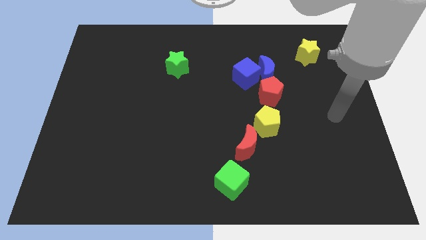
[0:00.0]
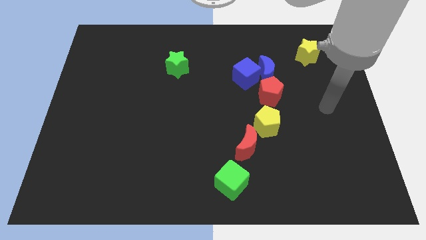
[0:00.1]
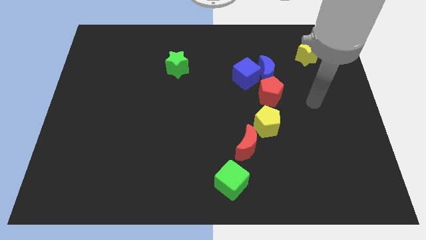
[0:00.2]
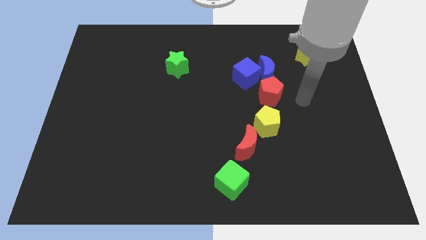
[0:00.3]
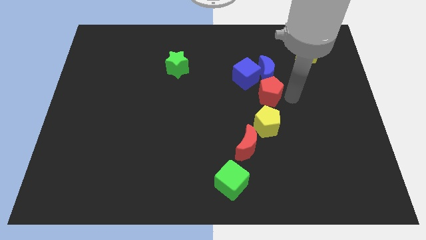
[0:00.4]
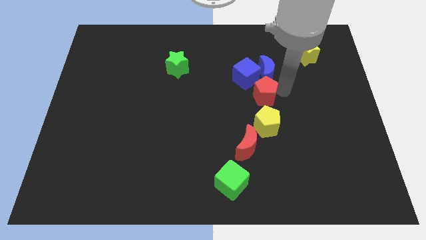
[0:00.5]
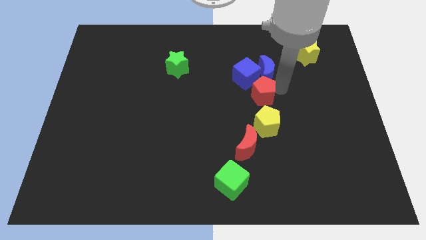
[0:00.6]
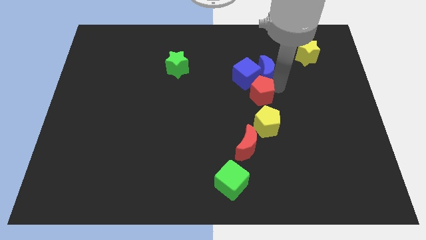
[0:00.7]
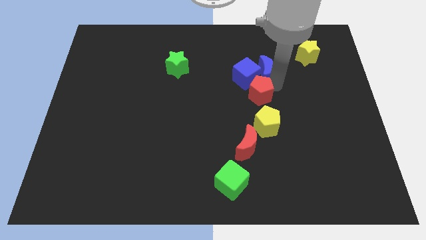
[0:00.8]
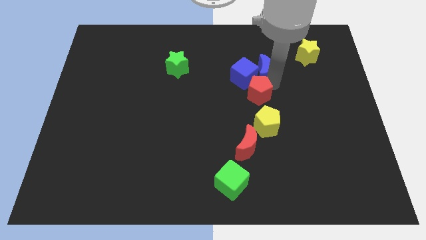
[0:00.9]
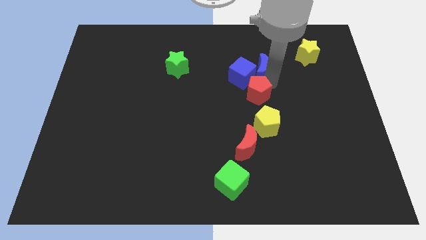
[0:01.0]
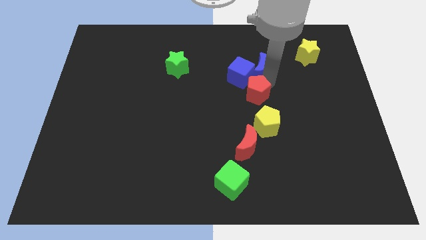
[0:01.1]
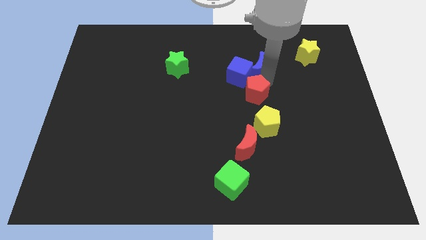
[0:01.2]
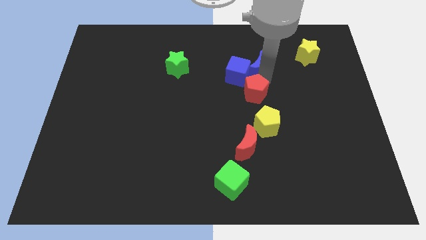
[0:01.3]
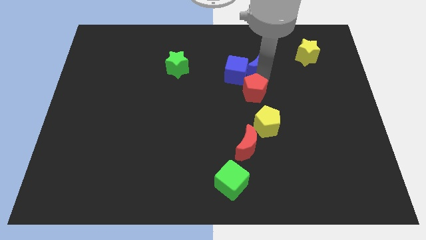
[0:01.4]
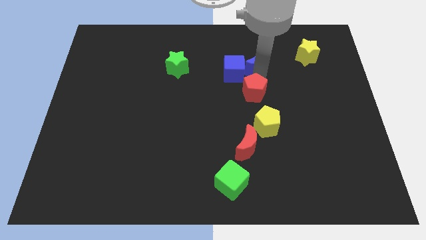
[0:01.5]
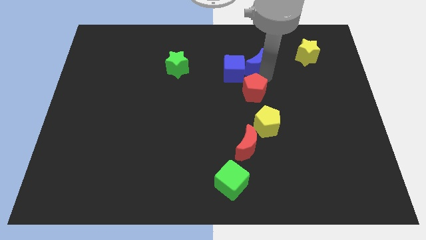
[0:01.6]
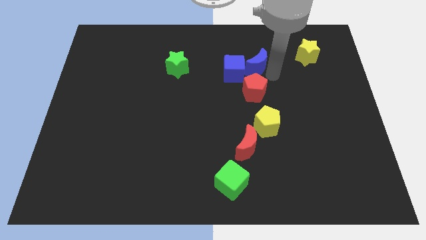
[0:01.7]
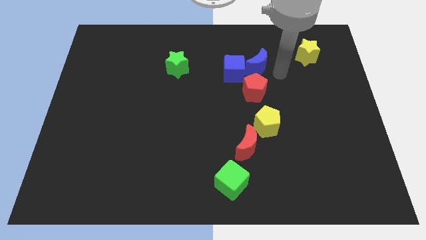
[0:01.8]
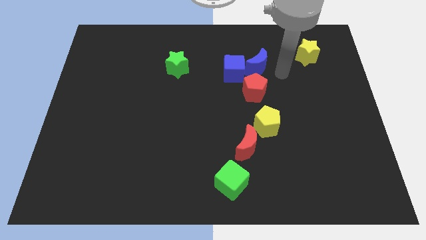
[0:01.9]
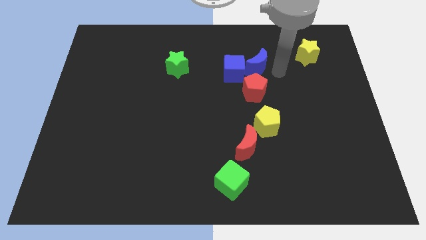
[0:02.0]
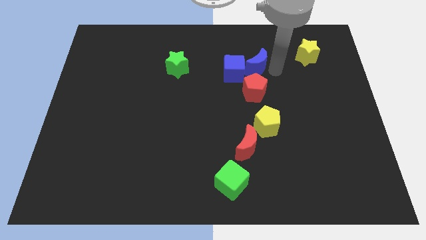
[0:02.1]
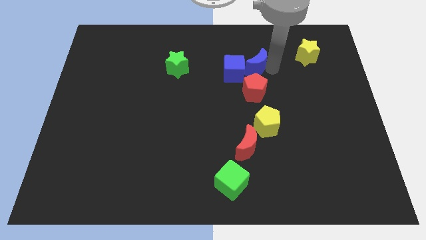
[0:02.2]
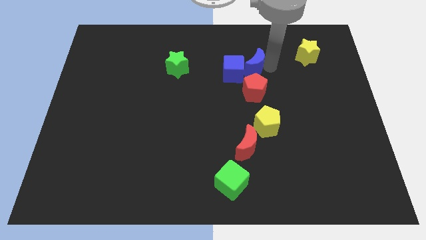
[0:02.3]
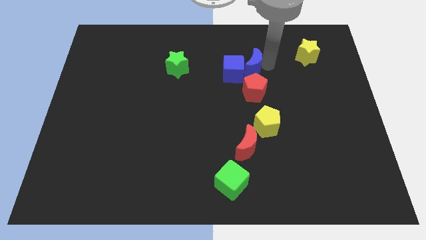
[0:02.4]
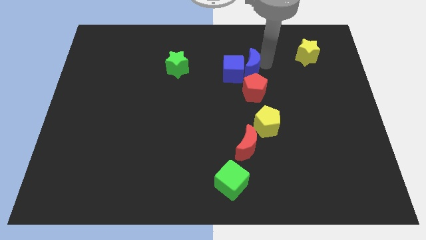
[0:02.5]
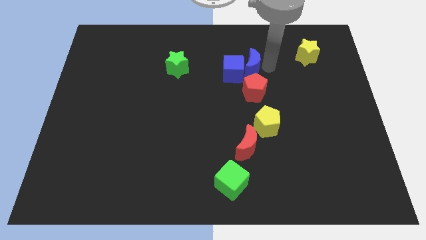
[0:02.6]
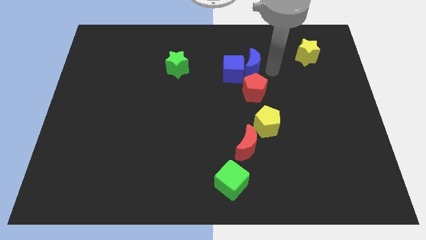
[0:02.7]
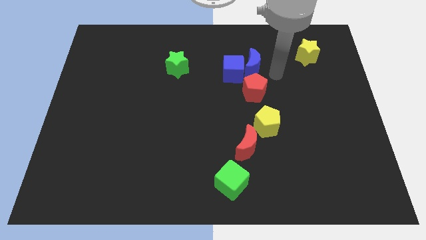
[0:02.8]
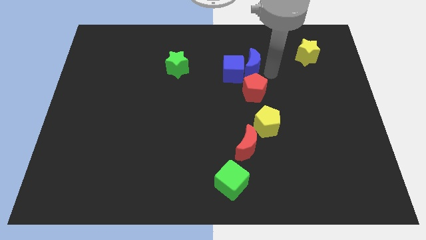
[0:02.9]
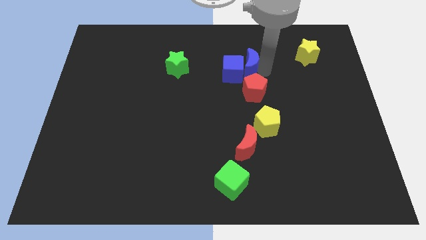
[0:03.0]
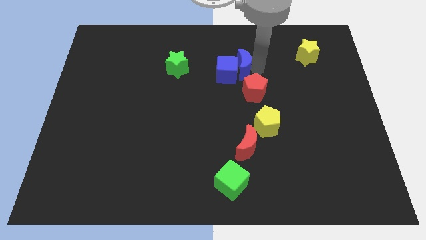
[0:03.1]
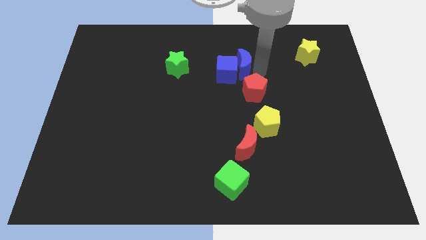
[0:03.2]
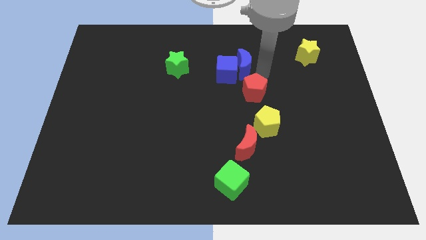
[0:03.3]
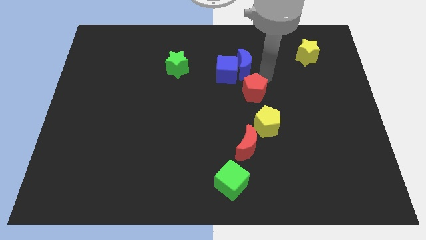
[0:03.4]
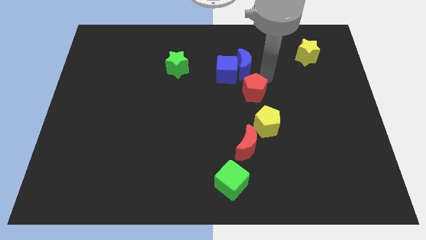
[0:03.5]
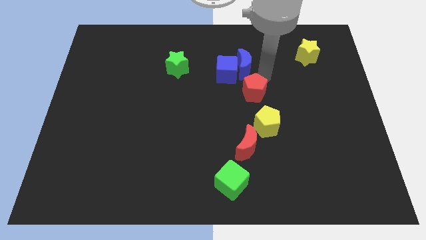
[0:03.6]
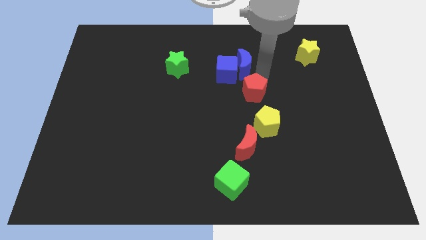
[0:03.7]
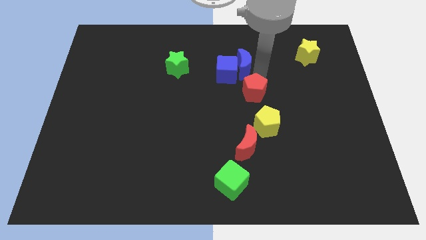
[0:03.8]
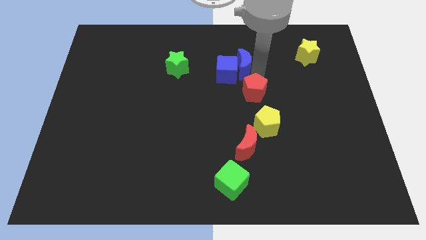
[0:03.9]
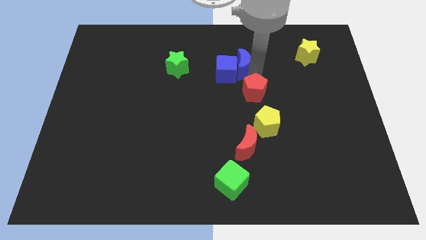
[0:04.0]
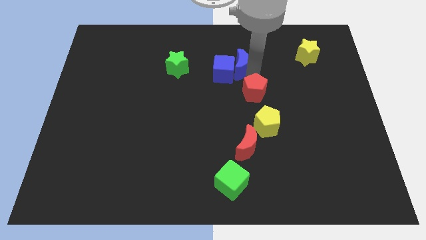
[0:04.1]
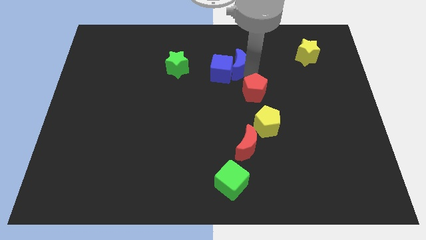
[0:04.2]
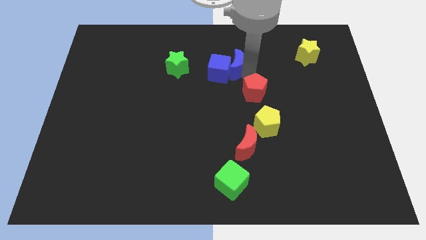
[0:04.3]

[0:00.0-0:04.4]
slide the blue moon a bit to the left

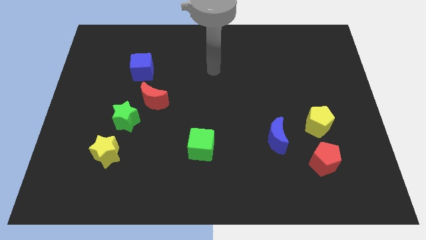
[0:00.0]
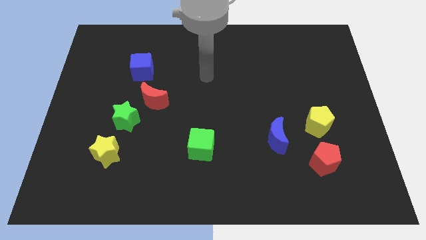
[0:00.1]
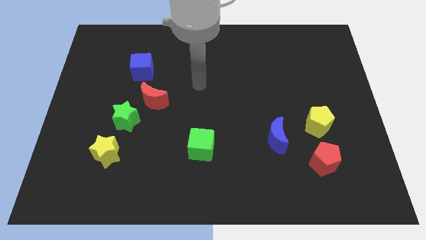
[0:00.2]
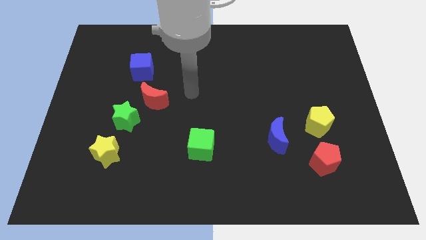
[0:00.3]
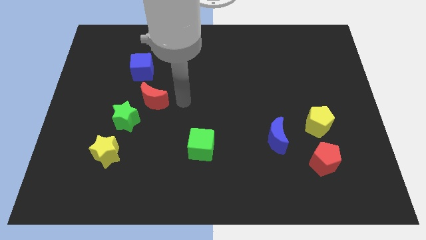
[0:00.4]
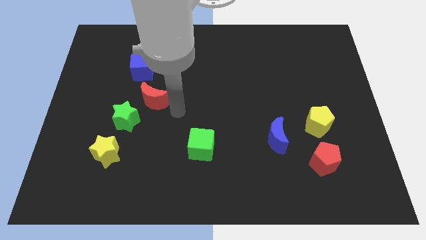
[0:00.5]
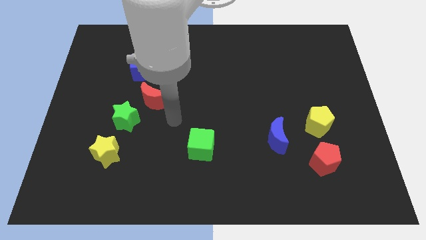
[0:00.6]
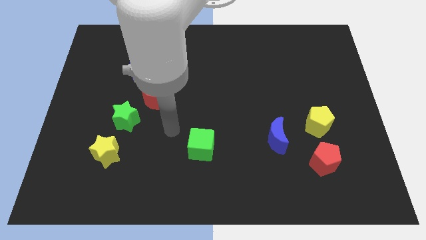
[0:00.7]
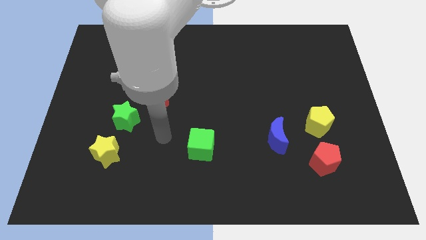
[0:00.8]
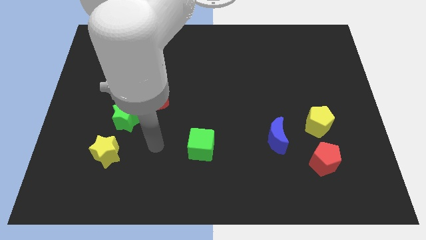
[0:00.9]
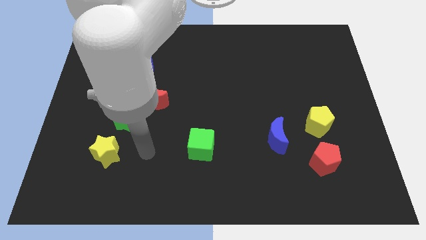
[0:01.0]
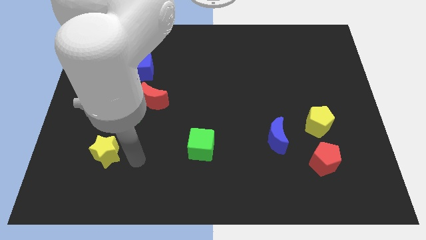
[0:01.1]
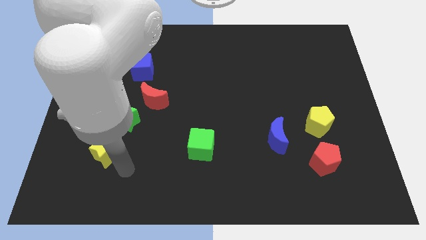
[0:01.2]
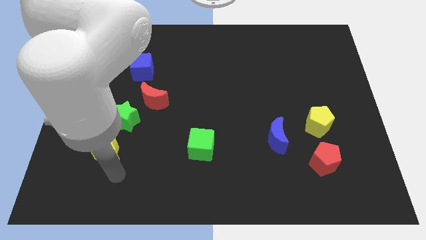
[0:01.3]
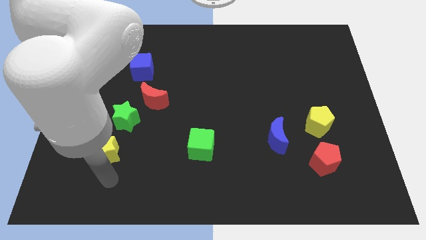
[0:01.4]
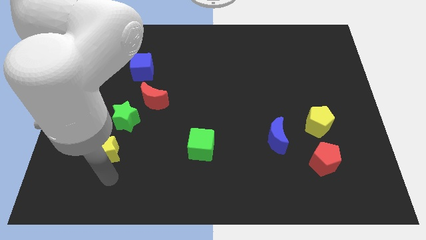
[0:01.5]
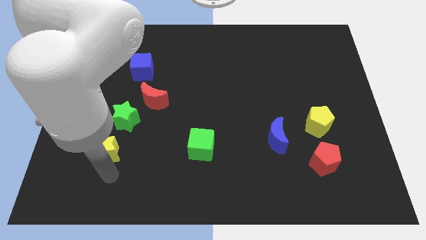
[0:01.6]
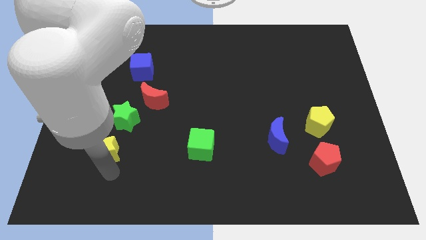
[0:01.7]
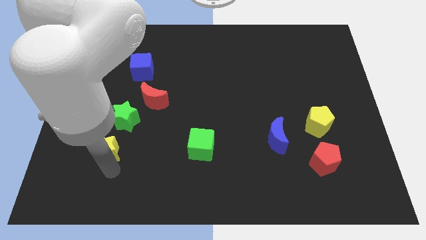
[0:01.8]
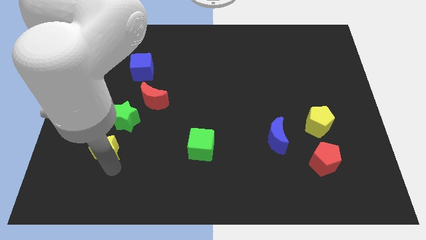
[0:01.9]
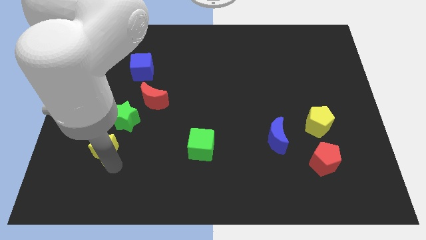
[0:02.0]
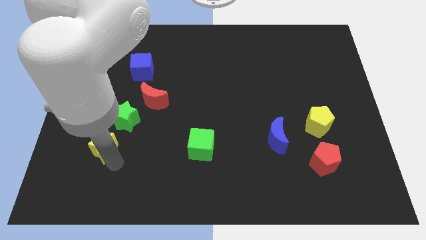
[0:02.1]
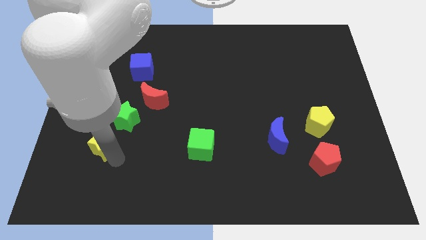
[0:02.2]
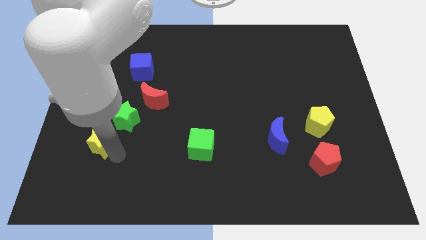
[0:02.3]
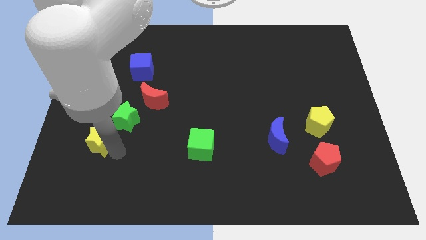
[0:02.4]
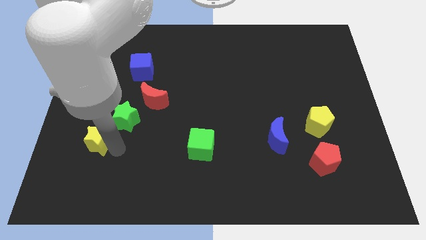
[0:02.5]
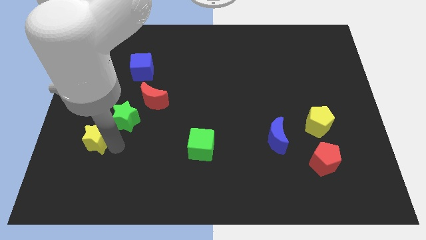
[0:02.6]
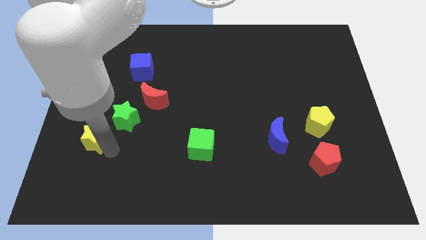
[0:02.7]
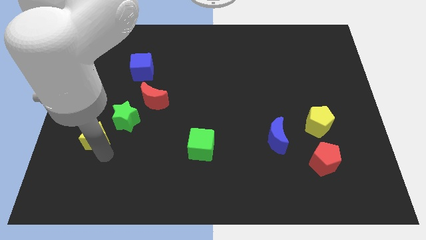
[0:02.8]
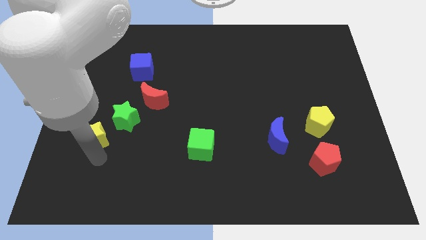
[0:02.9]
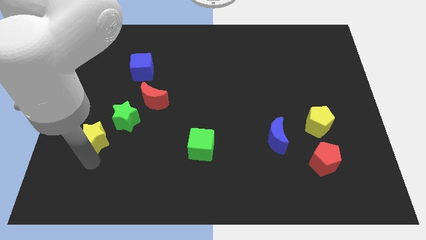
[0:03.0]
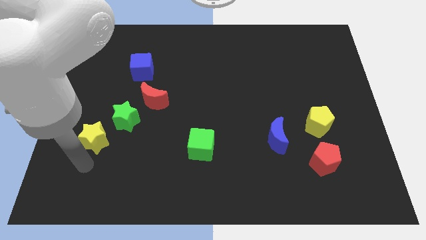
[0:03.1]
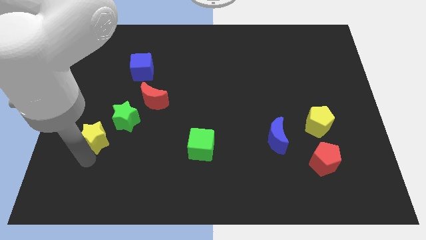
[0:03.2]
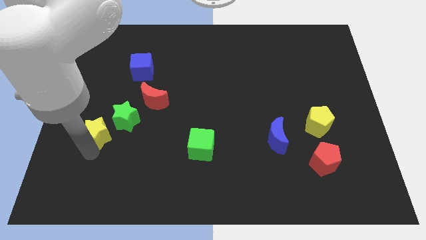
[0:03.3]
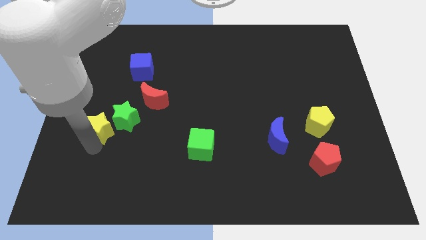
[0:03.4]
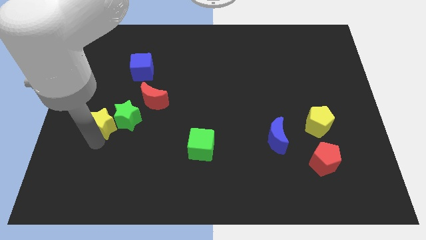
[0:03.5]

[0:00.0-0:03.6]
move the yellow star slightly upwards

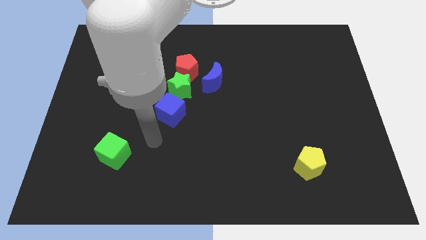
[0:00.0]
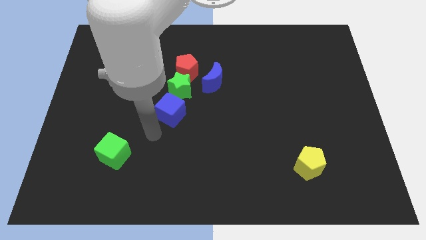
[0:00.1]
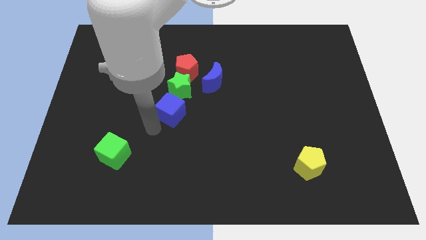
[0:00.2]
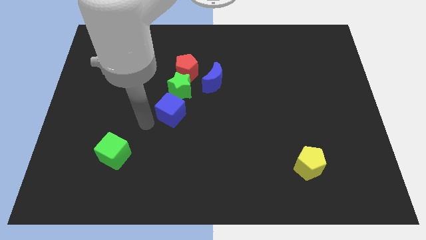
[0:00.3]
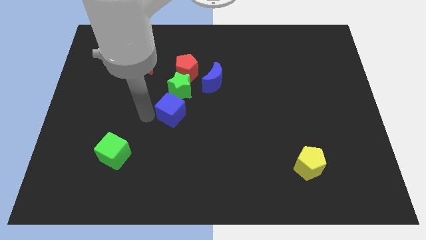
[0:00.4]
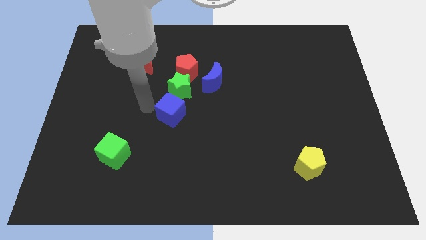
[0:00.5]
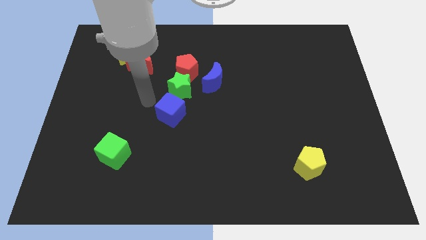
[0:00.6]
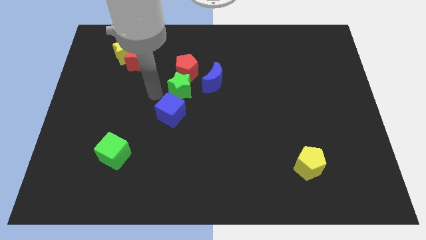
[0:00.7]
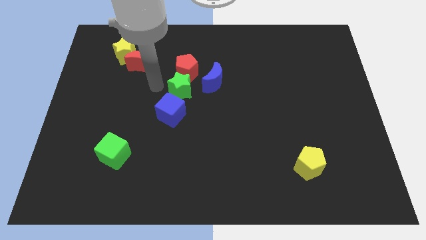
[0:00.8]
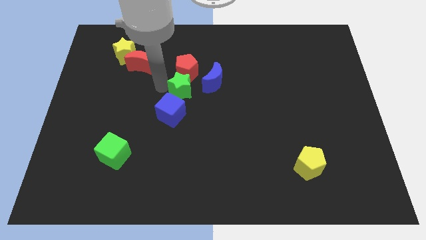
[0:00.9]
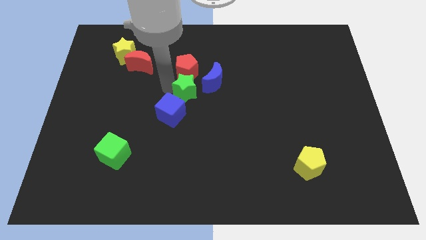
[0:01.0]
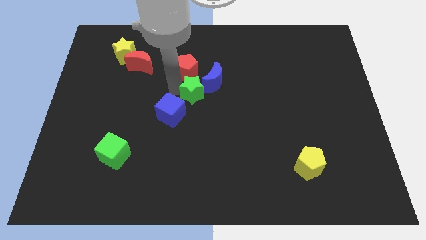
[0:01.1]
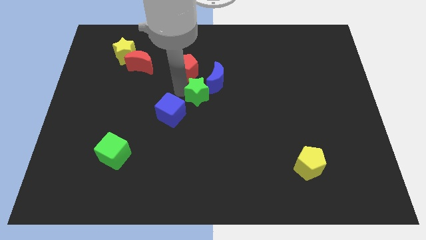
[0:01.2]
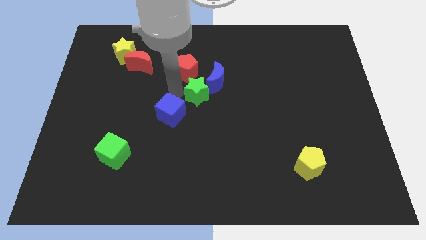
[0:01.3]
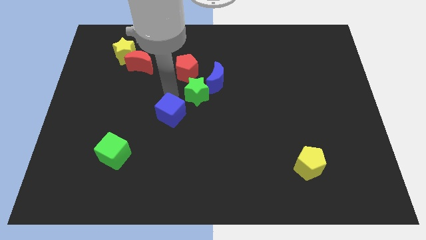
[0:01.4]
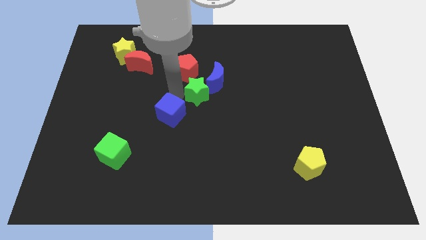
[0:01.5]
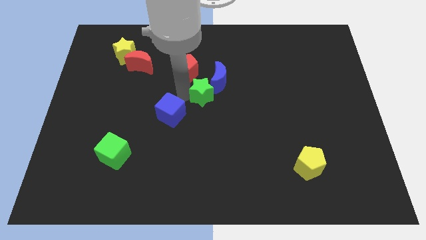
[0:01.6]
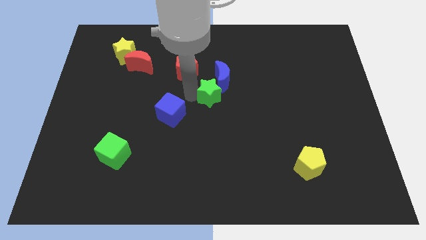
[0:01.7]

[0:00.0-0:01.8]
push the green star a little right
